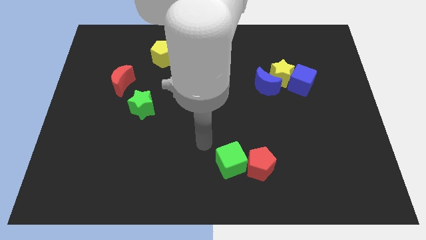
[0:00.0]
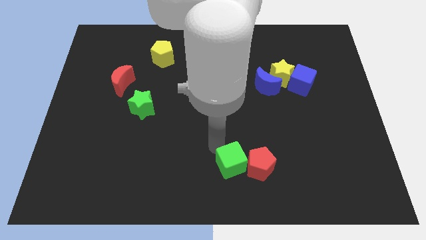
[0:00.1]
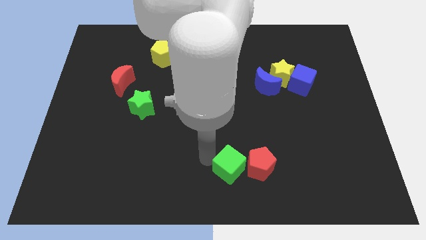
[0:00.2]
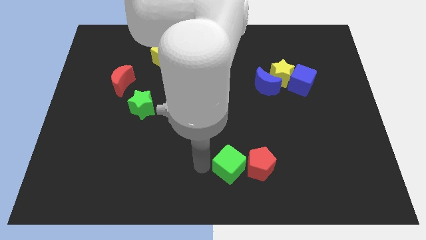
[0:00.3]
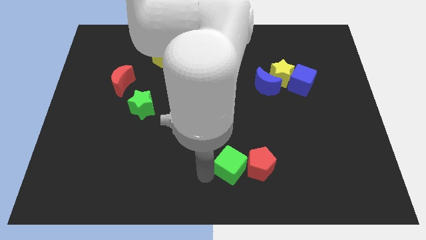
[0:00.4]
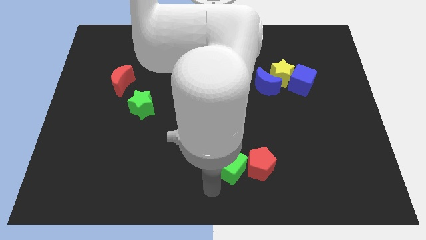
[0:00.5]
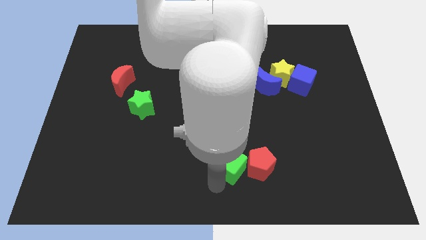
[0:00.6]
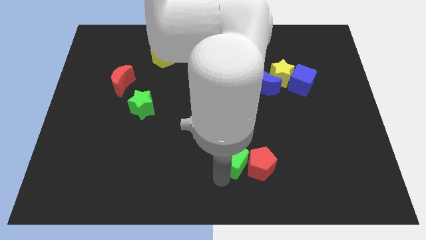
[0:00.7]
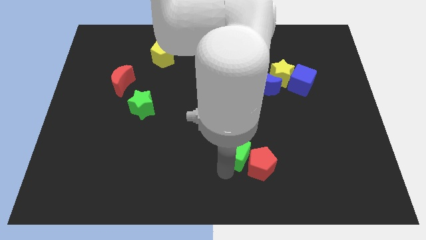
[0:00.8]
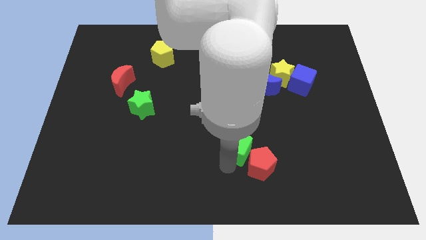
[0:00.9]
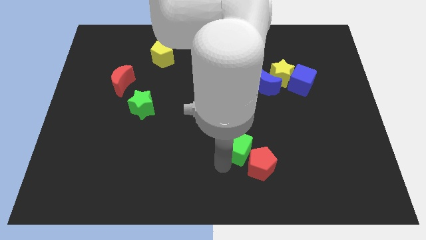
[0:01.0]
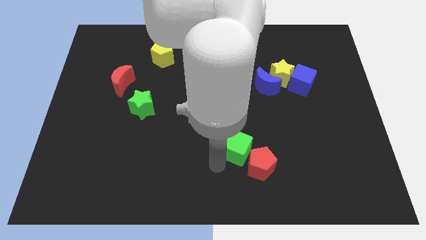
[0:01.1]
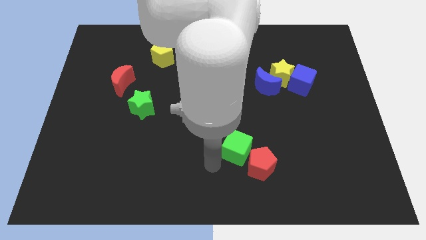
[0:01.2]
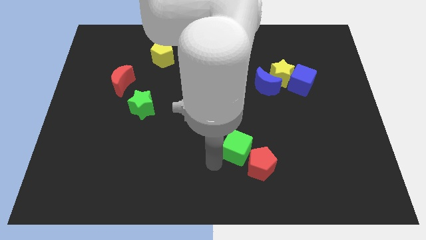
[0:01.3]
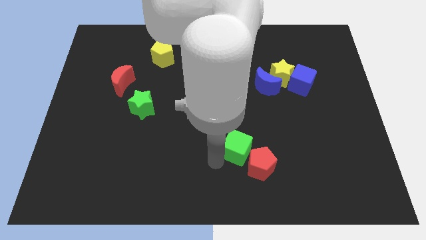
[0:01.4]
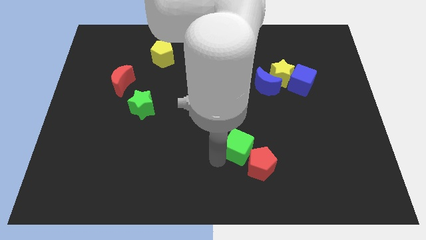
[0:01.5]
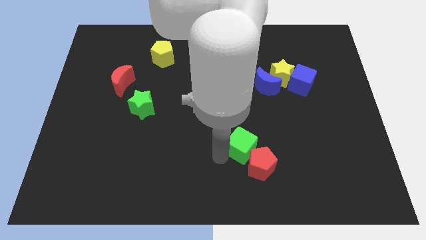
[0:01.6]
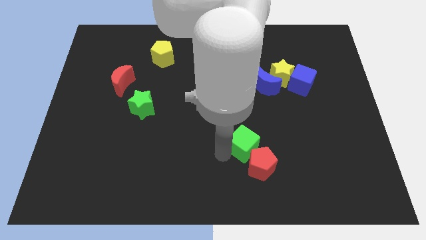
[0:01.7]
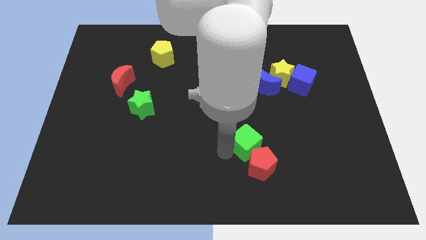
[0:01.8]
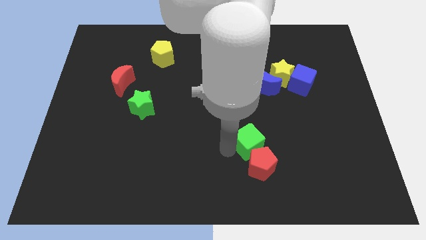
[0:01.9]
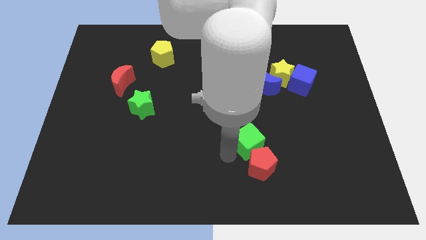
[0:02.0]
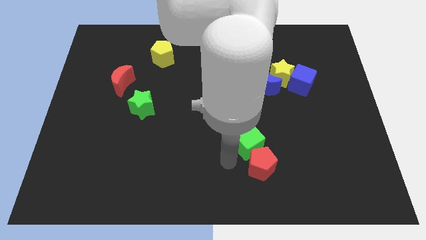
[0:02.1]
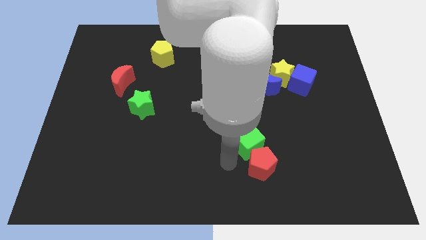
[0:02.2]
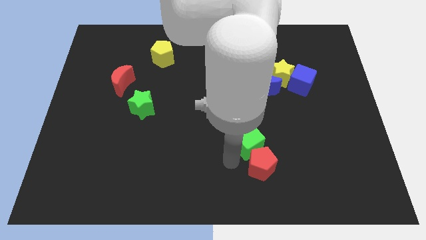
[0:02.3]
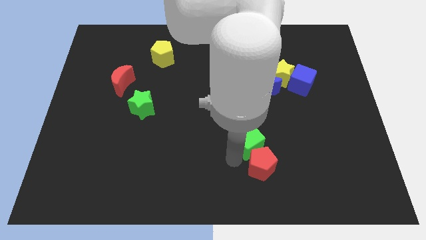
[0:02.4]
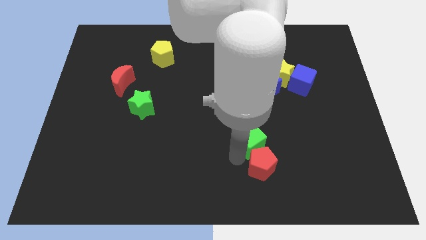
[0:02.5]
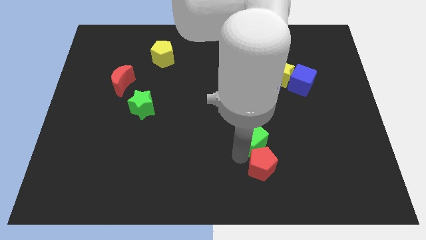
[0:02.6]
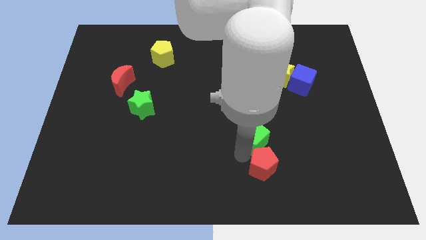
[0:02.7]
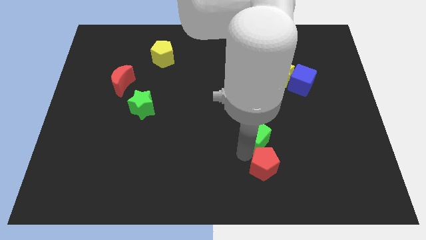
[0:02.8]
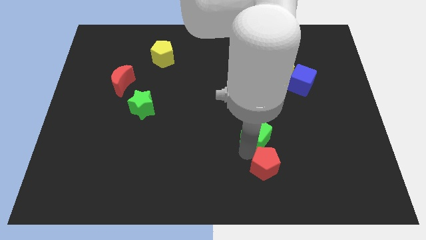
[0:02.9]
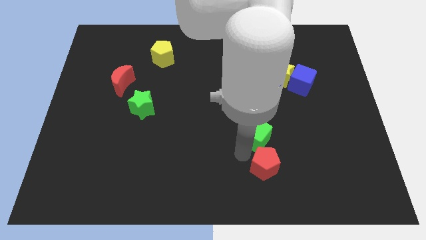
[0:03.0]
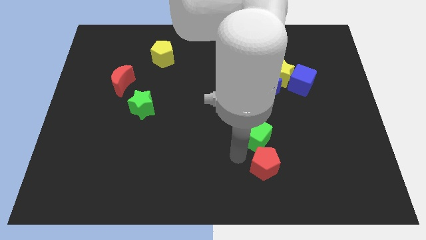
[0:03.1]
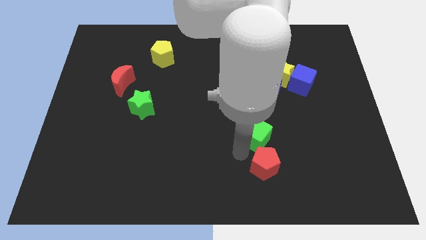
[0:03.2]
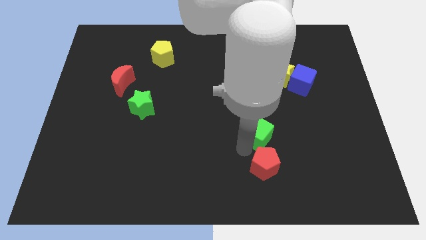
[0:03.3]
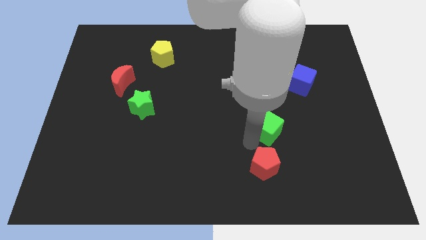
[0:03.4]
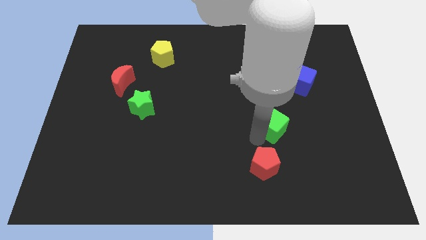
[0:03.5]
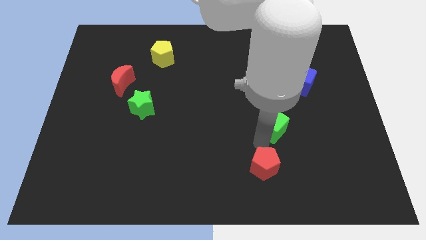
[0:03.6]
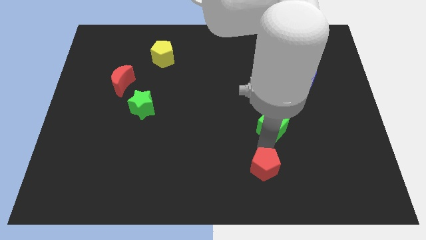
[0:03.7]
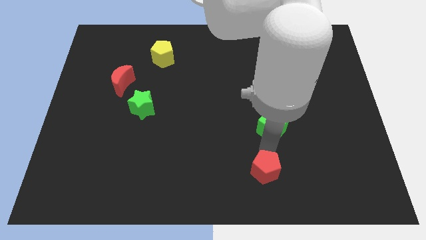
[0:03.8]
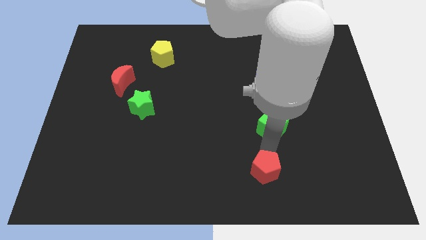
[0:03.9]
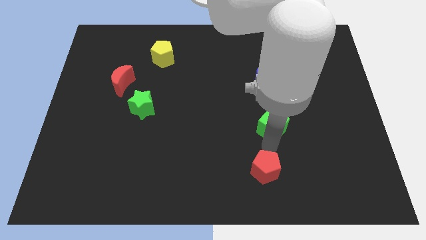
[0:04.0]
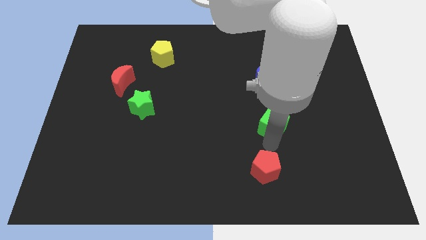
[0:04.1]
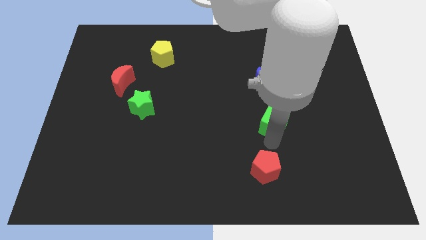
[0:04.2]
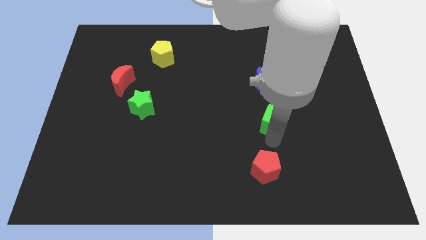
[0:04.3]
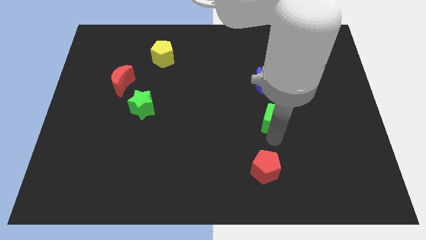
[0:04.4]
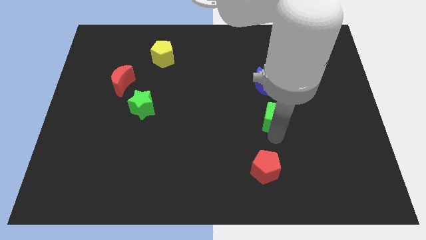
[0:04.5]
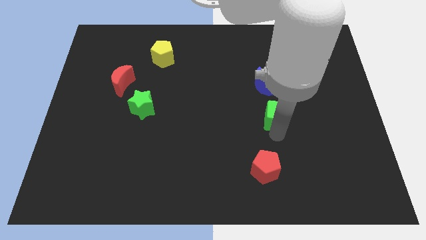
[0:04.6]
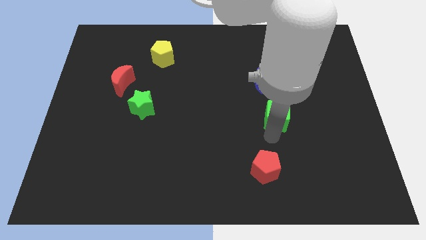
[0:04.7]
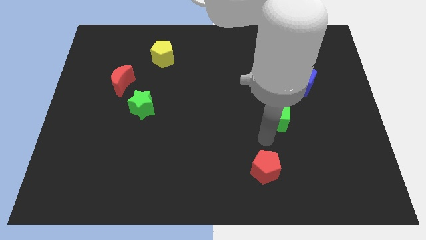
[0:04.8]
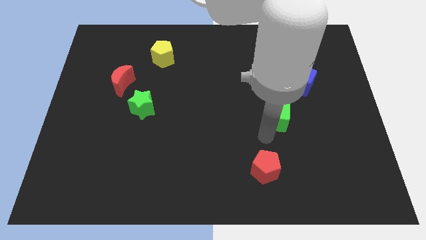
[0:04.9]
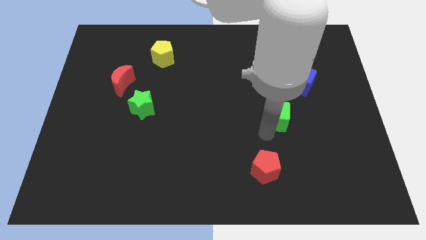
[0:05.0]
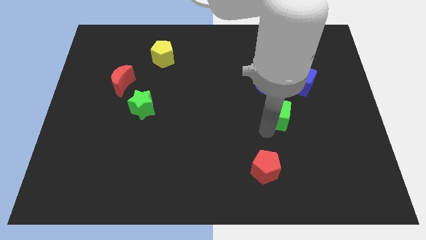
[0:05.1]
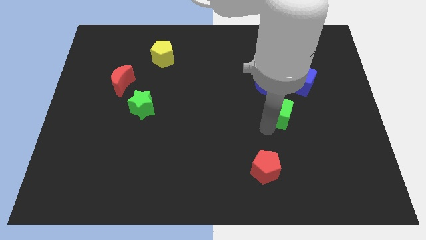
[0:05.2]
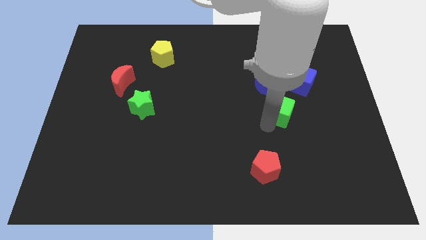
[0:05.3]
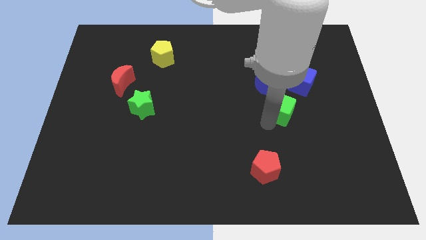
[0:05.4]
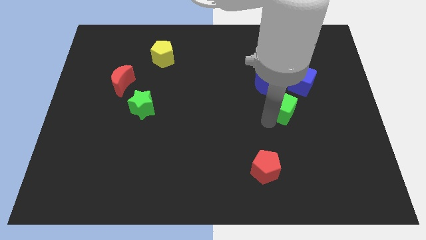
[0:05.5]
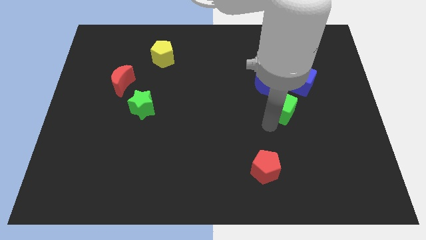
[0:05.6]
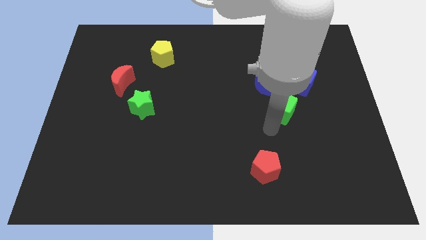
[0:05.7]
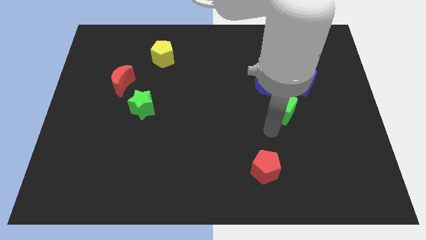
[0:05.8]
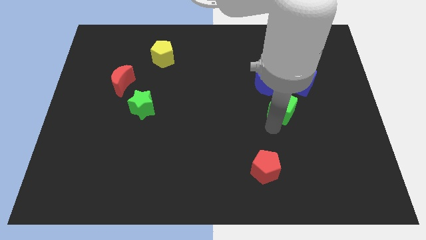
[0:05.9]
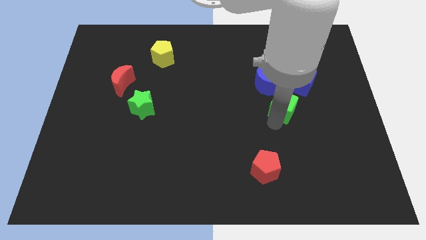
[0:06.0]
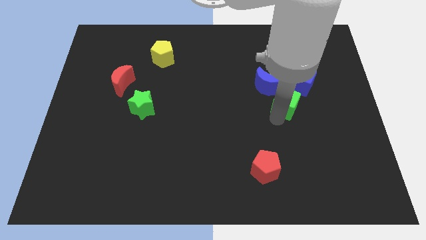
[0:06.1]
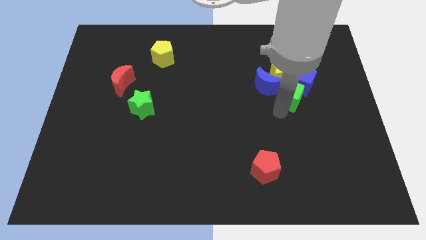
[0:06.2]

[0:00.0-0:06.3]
move the green cube to the blue cube

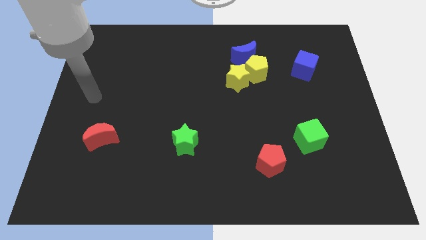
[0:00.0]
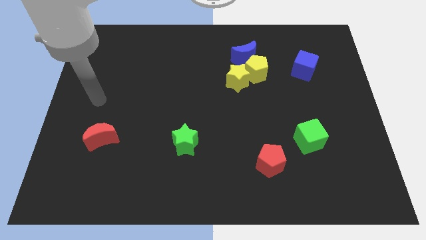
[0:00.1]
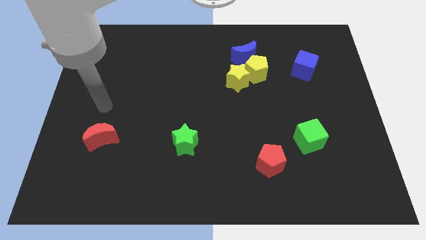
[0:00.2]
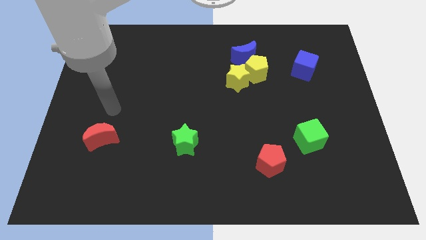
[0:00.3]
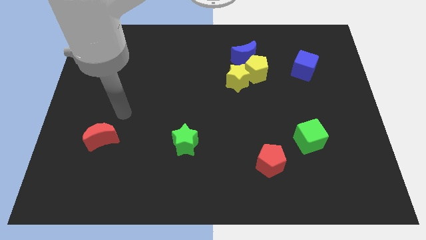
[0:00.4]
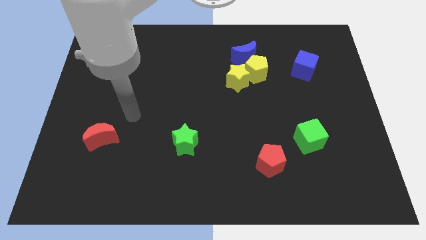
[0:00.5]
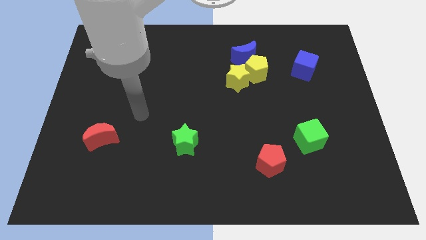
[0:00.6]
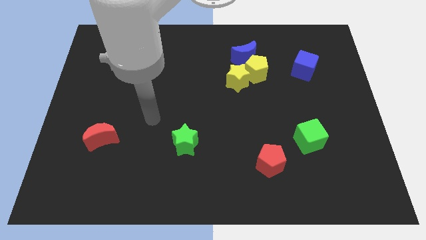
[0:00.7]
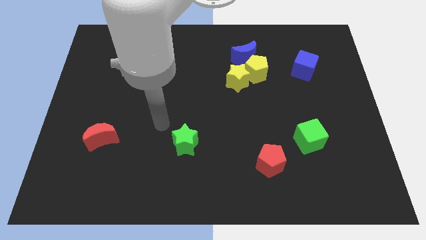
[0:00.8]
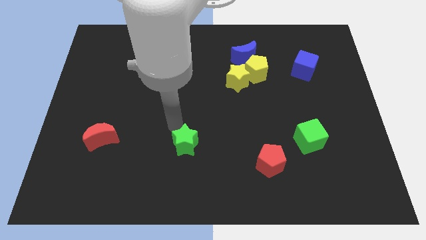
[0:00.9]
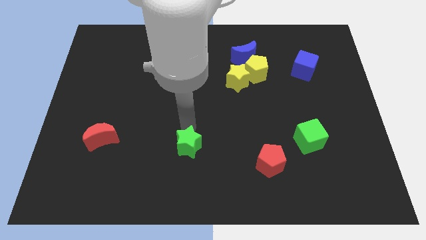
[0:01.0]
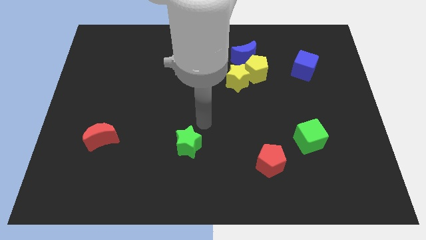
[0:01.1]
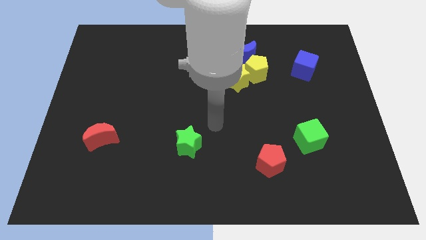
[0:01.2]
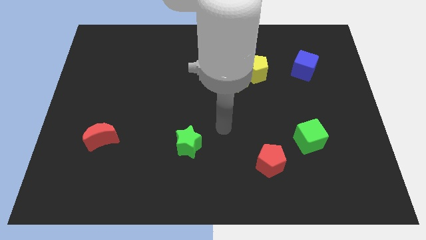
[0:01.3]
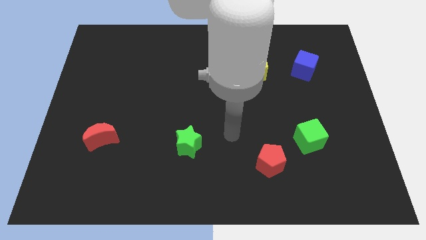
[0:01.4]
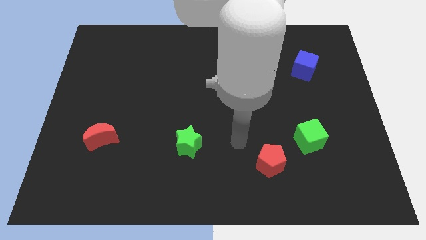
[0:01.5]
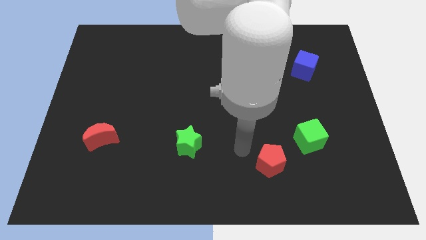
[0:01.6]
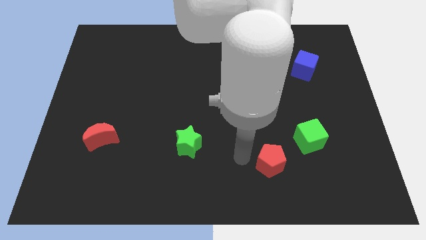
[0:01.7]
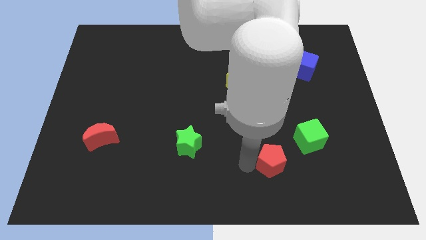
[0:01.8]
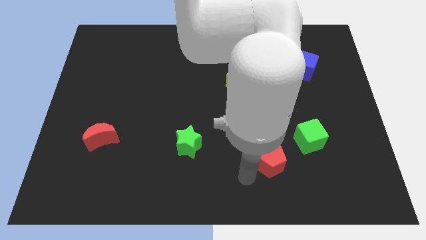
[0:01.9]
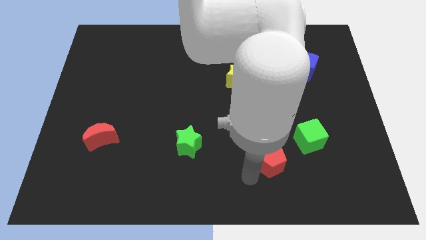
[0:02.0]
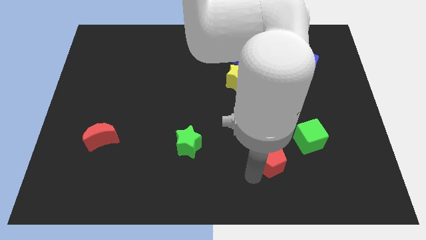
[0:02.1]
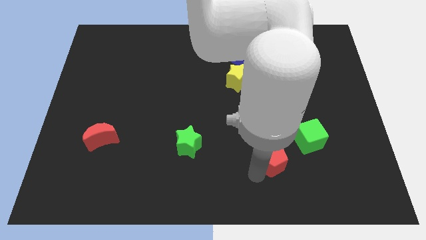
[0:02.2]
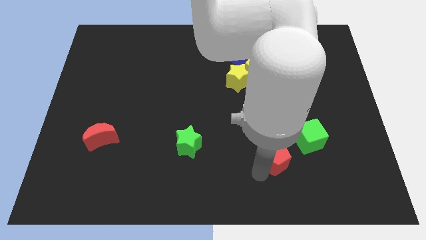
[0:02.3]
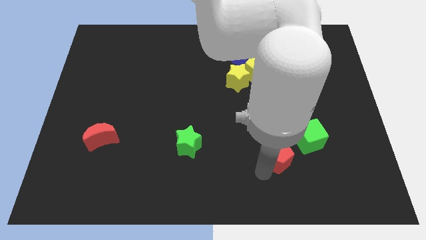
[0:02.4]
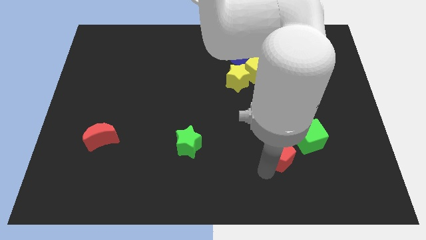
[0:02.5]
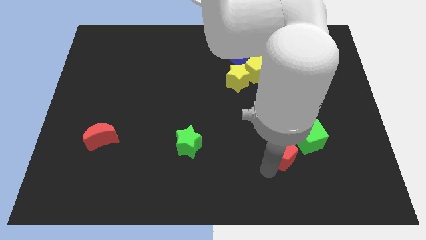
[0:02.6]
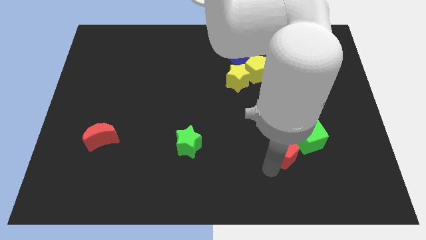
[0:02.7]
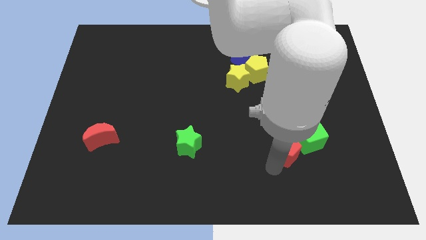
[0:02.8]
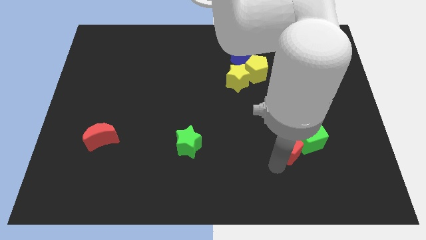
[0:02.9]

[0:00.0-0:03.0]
slide the red pentagon close to the green cube
